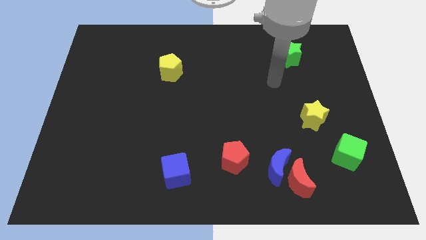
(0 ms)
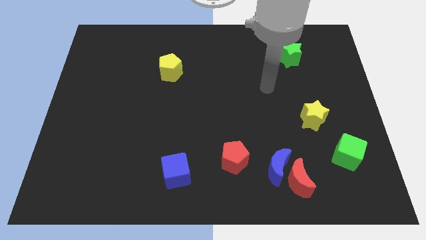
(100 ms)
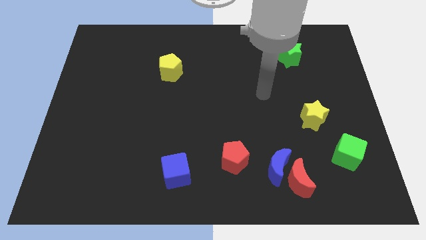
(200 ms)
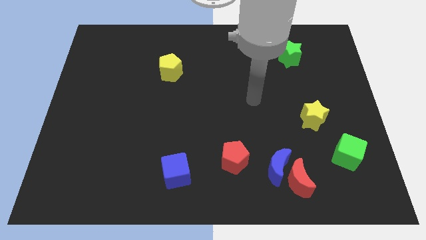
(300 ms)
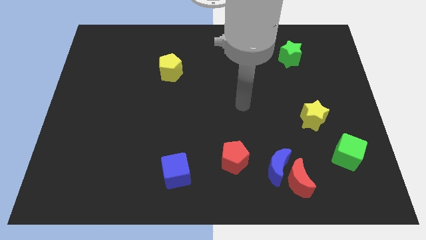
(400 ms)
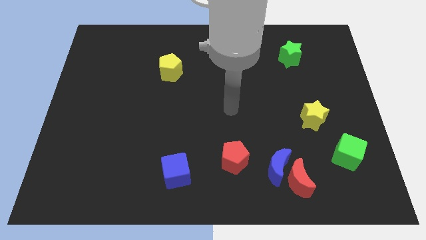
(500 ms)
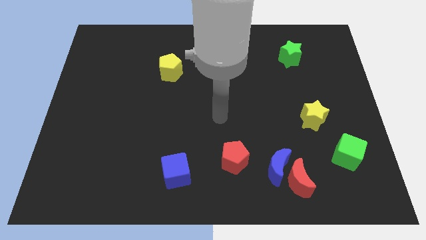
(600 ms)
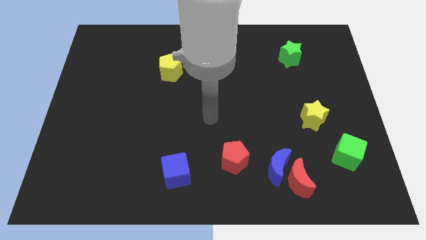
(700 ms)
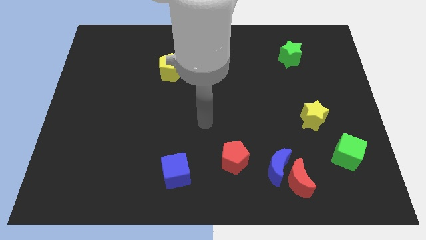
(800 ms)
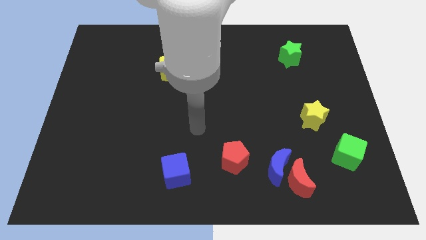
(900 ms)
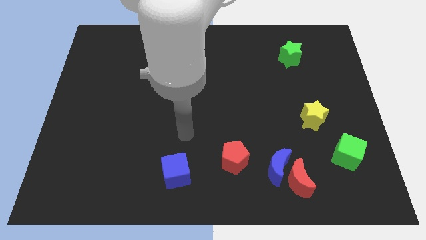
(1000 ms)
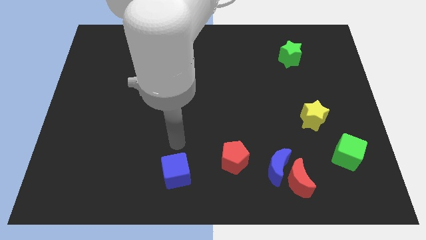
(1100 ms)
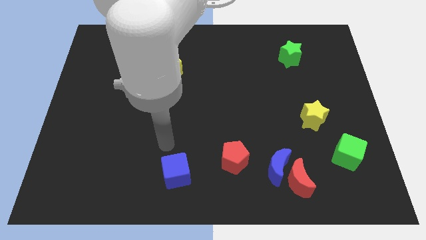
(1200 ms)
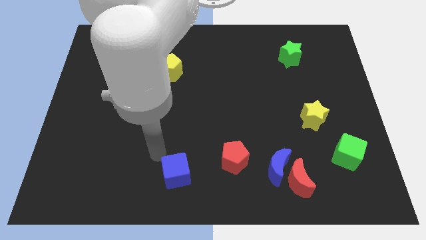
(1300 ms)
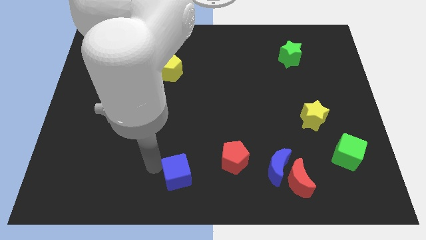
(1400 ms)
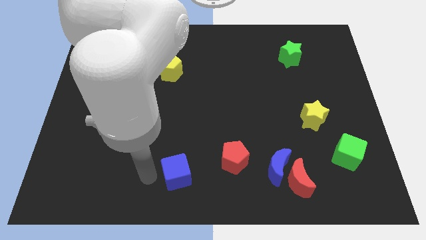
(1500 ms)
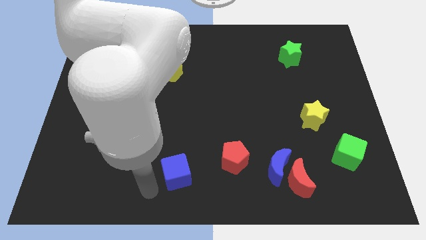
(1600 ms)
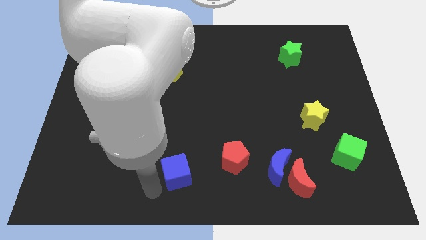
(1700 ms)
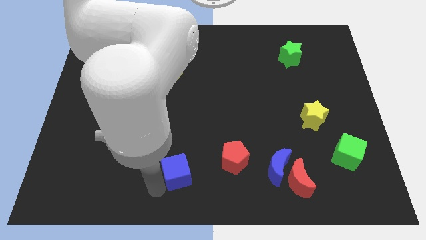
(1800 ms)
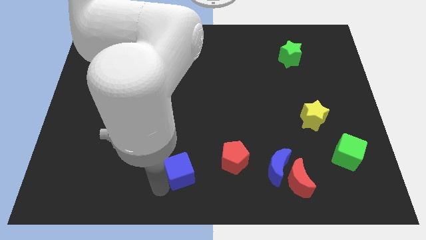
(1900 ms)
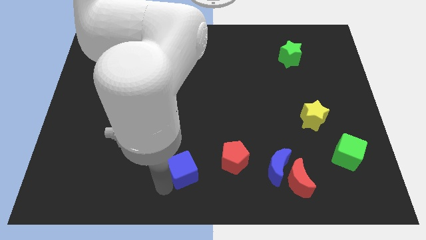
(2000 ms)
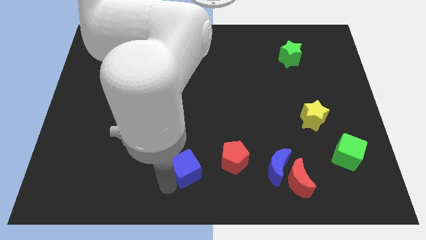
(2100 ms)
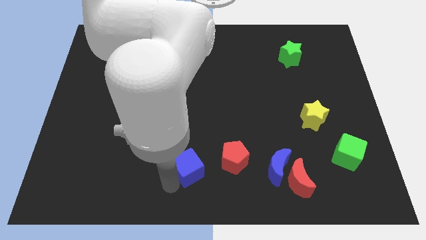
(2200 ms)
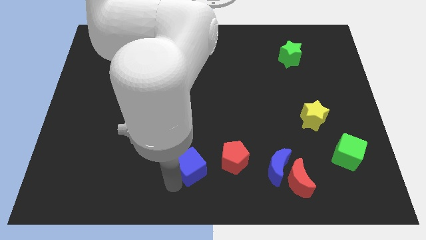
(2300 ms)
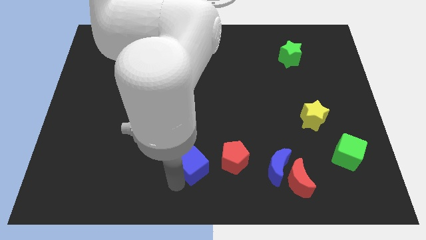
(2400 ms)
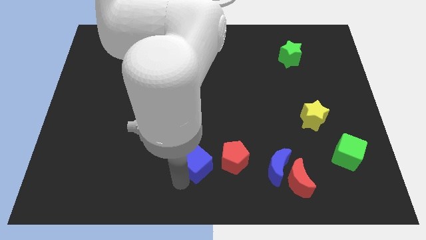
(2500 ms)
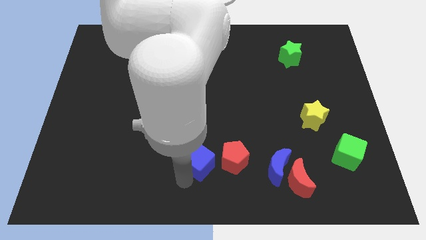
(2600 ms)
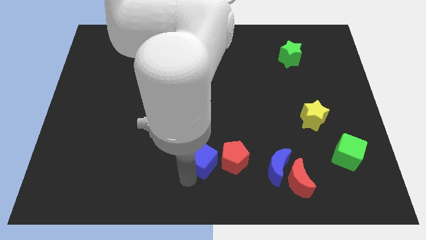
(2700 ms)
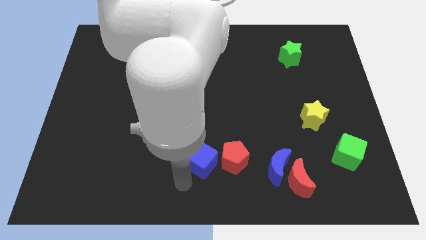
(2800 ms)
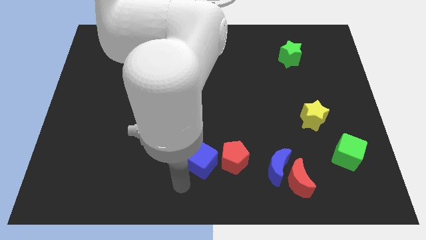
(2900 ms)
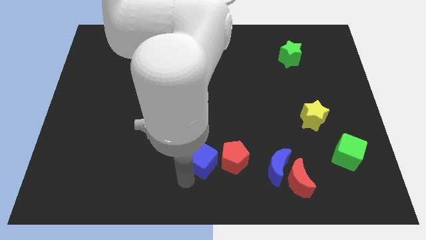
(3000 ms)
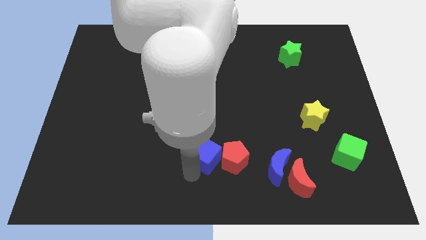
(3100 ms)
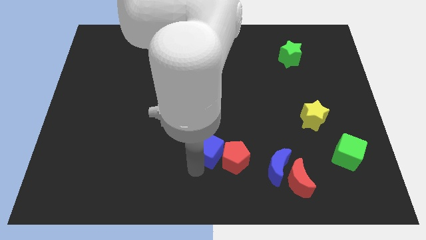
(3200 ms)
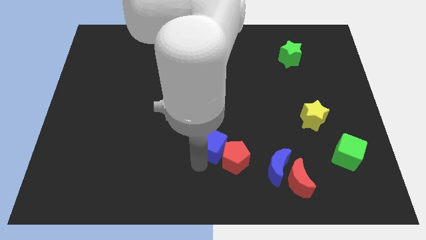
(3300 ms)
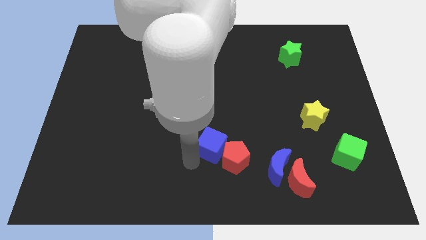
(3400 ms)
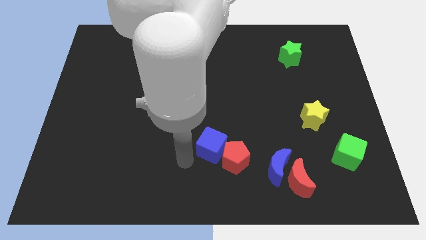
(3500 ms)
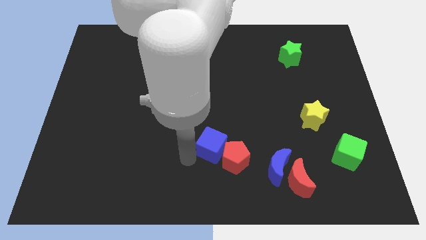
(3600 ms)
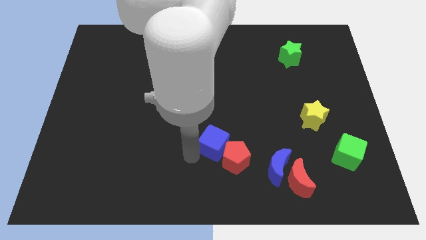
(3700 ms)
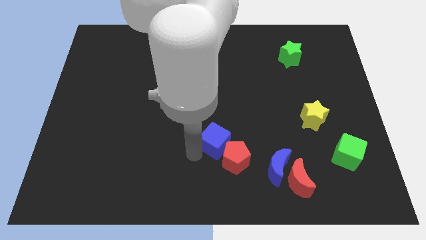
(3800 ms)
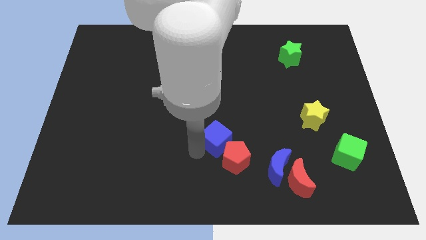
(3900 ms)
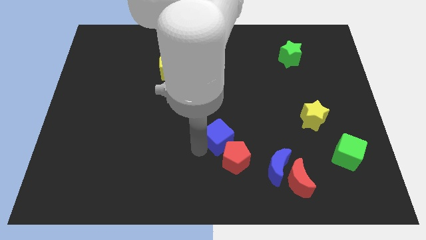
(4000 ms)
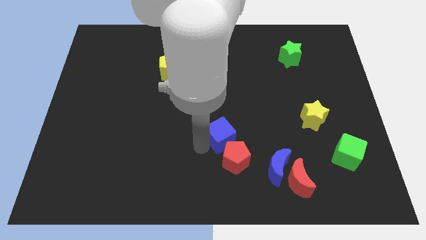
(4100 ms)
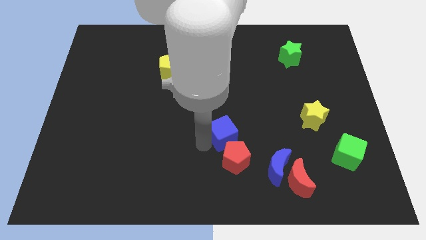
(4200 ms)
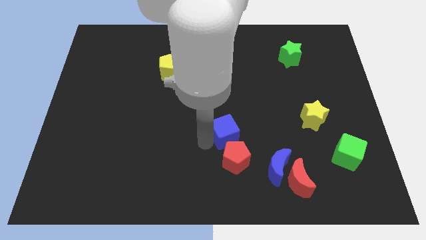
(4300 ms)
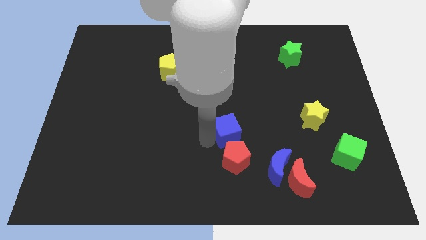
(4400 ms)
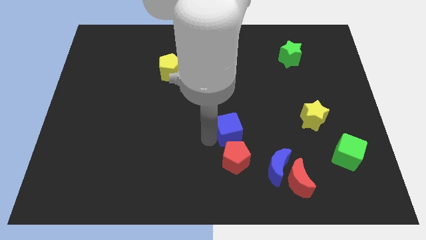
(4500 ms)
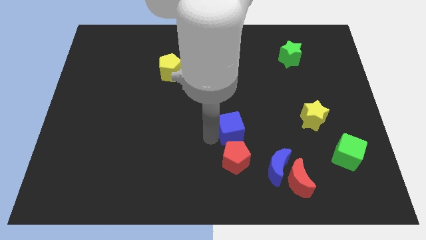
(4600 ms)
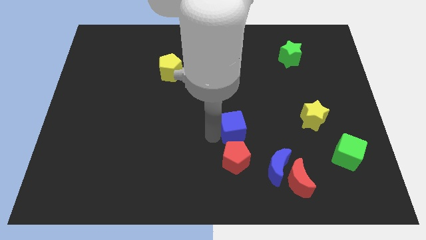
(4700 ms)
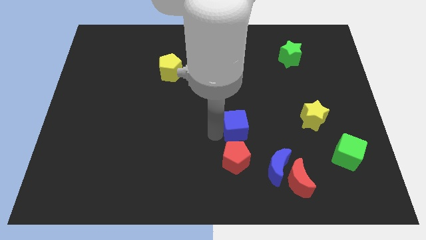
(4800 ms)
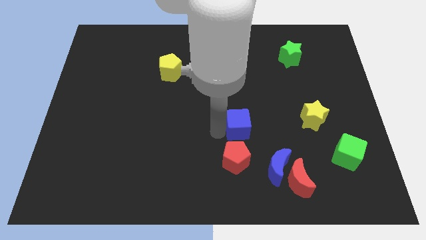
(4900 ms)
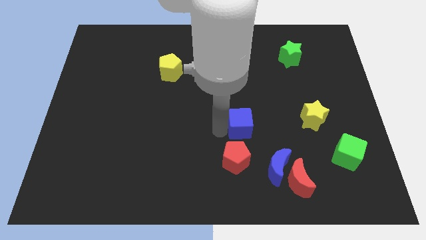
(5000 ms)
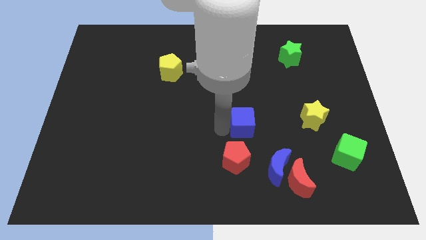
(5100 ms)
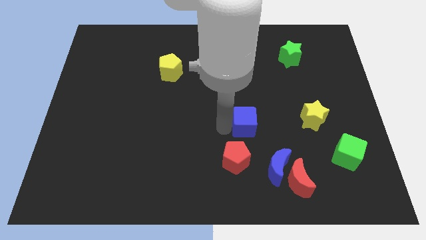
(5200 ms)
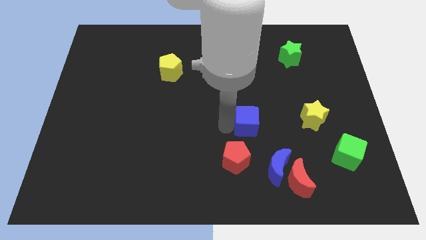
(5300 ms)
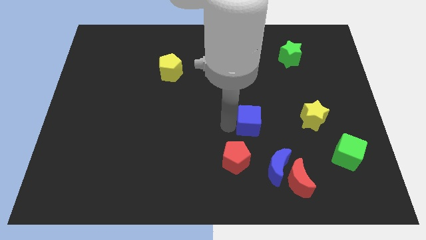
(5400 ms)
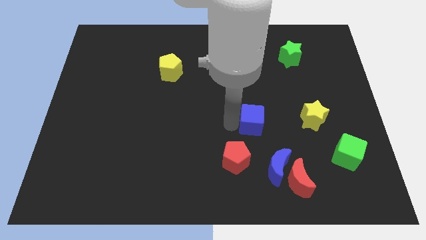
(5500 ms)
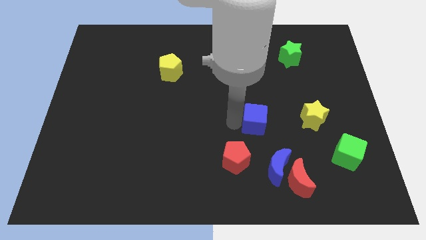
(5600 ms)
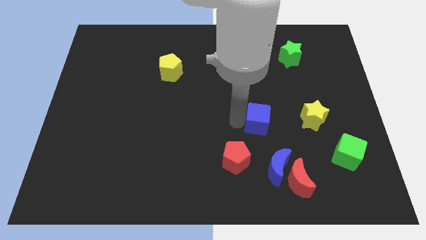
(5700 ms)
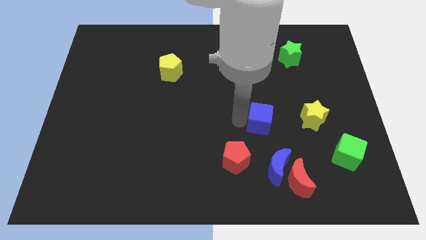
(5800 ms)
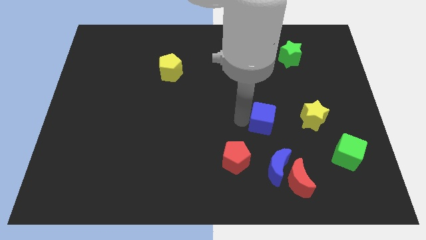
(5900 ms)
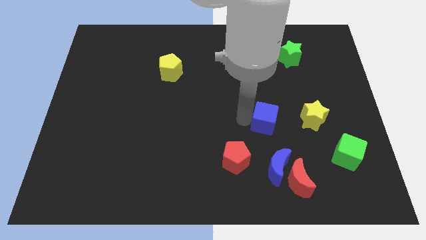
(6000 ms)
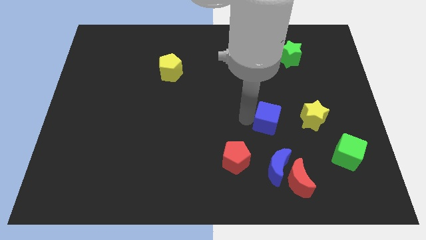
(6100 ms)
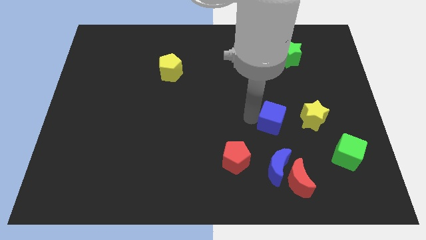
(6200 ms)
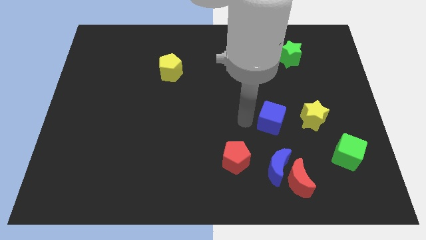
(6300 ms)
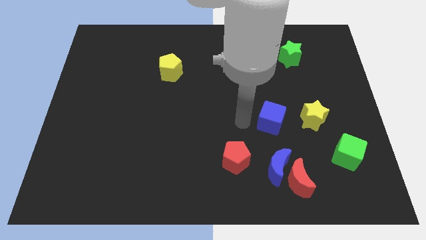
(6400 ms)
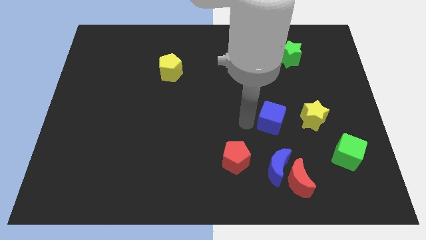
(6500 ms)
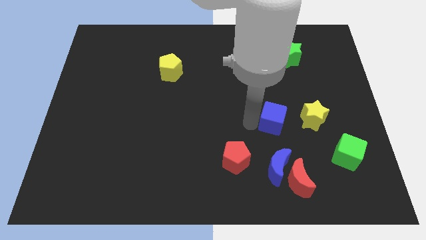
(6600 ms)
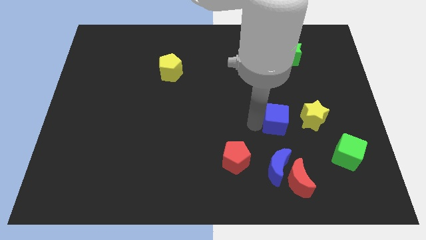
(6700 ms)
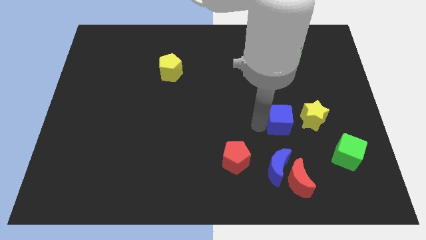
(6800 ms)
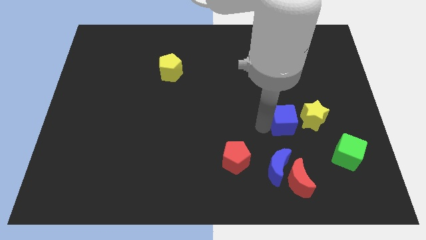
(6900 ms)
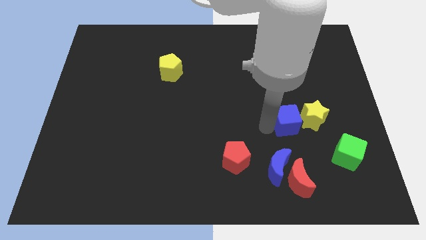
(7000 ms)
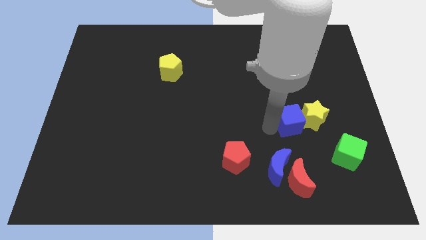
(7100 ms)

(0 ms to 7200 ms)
move the blue cube close to the yellow star
